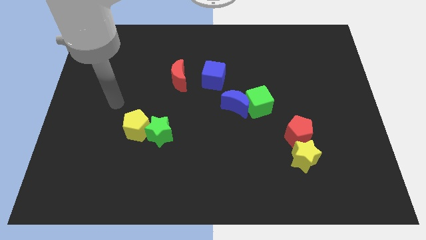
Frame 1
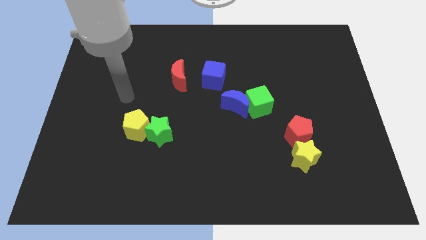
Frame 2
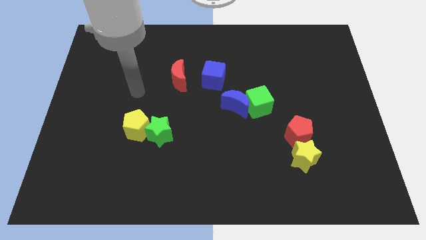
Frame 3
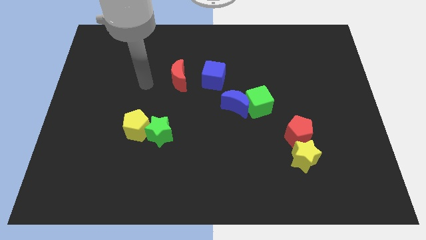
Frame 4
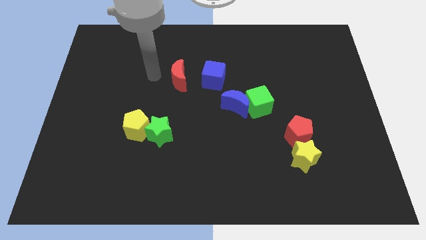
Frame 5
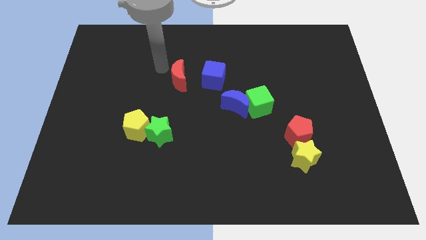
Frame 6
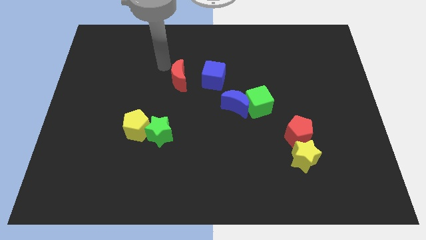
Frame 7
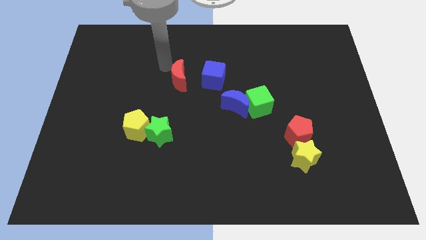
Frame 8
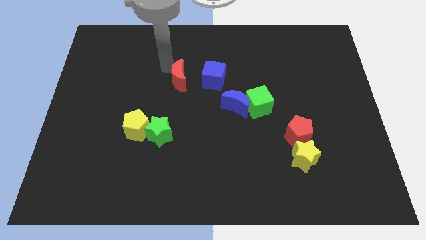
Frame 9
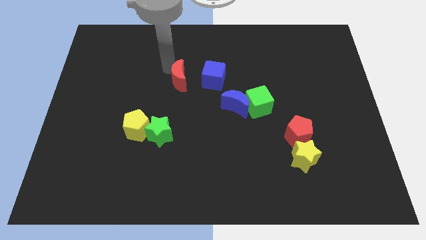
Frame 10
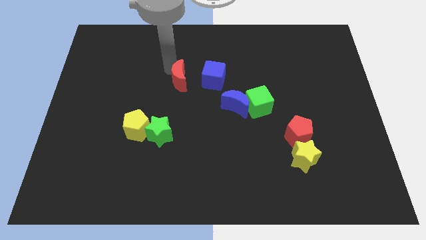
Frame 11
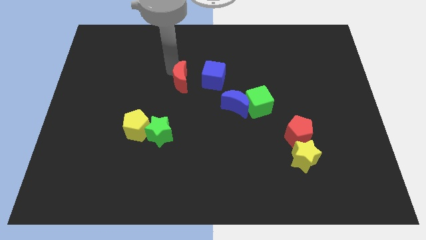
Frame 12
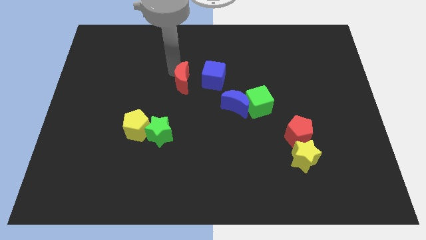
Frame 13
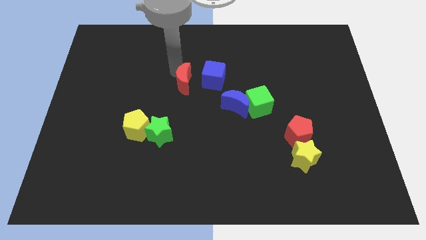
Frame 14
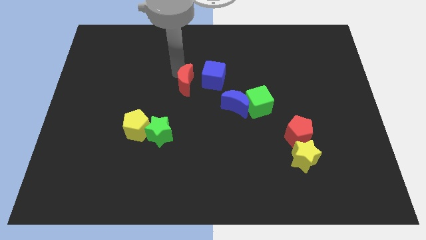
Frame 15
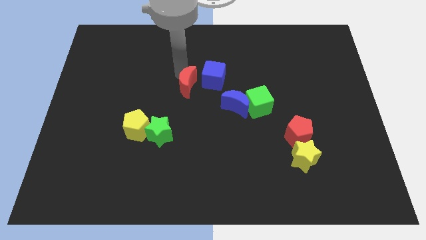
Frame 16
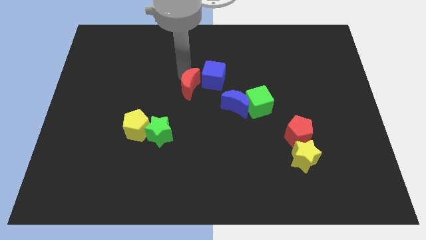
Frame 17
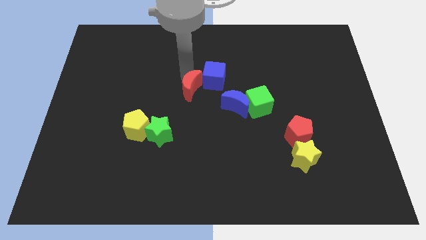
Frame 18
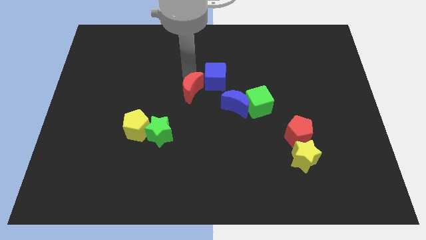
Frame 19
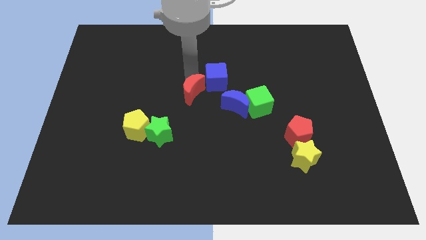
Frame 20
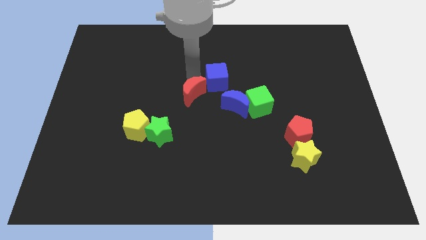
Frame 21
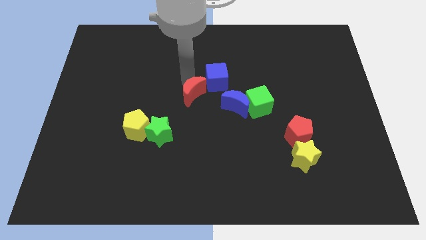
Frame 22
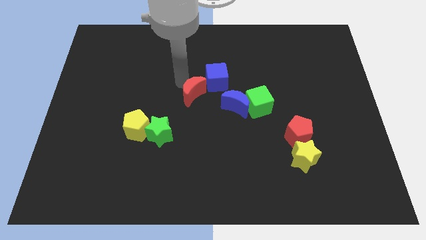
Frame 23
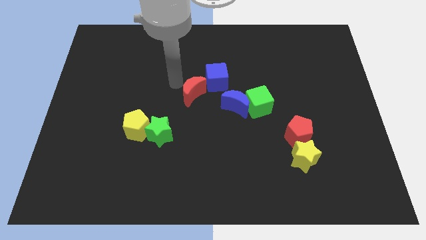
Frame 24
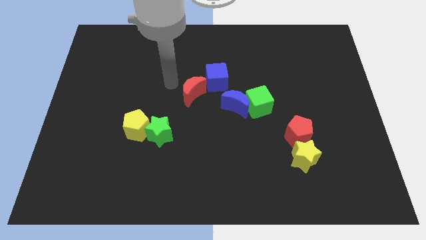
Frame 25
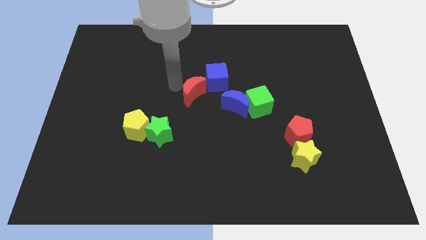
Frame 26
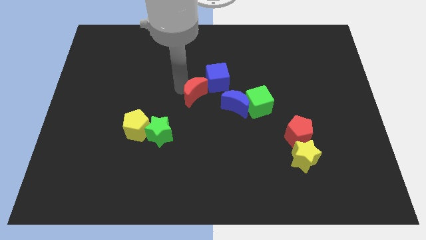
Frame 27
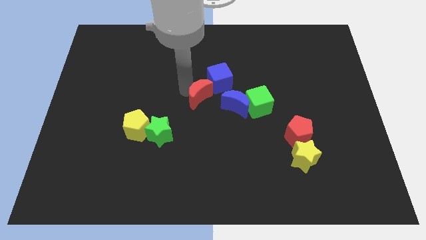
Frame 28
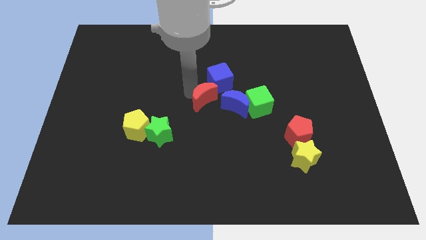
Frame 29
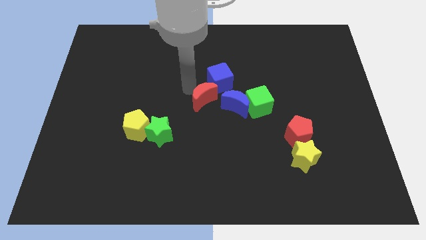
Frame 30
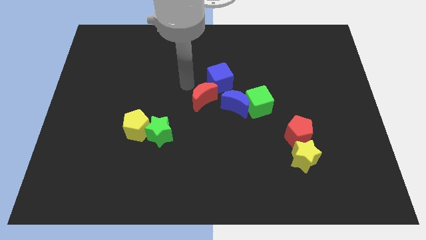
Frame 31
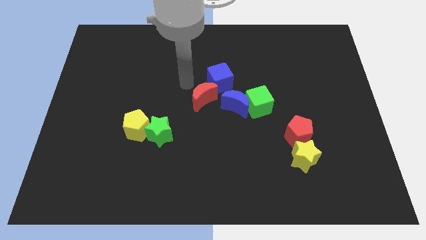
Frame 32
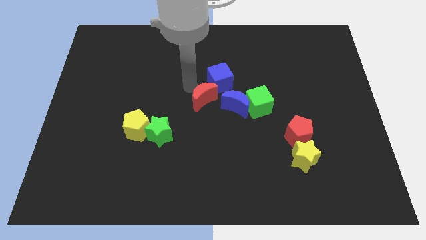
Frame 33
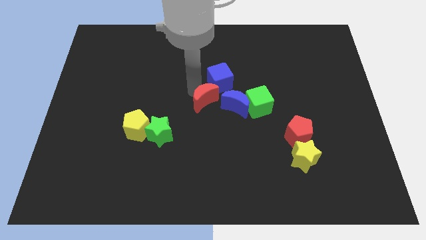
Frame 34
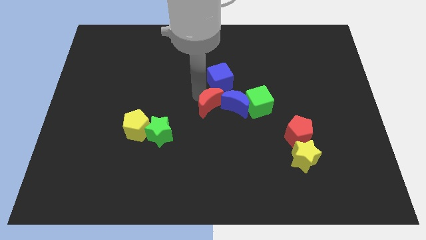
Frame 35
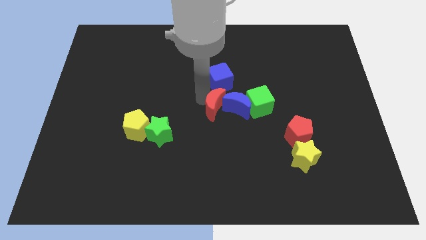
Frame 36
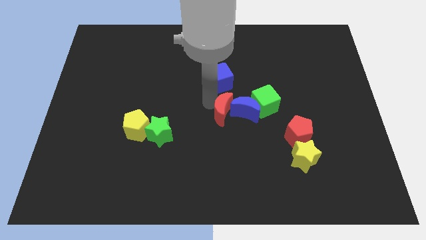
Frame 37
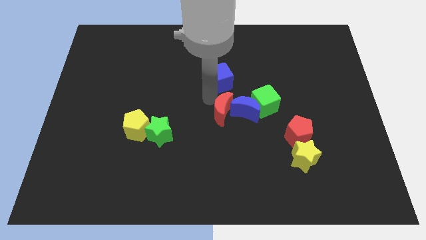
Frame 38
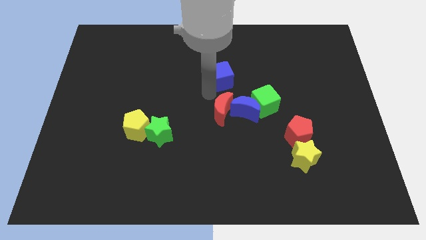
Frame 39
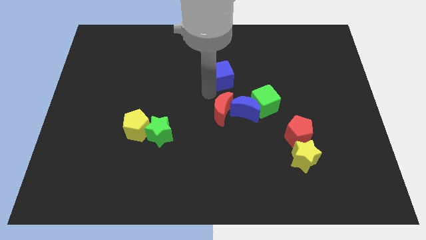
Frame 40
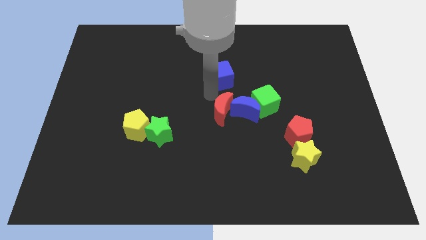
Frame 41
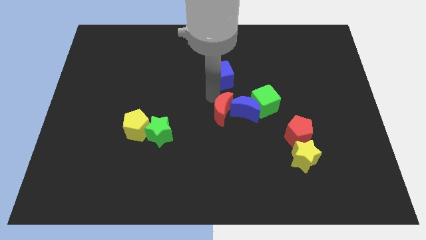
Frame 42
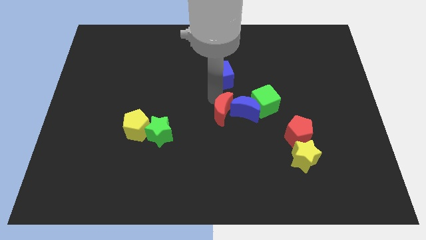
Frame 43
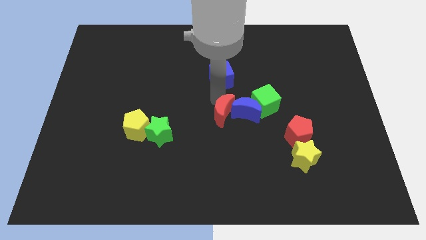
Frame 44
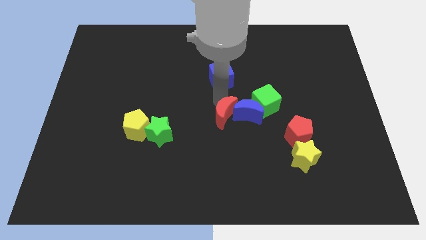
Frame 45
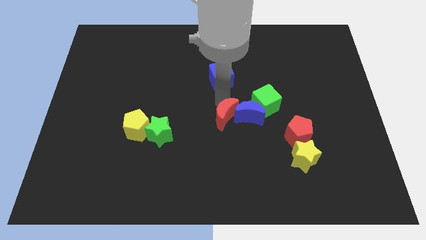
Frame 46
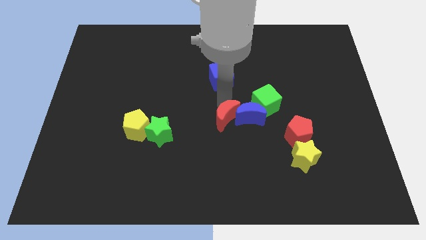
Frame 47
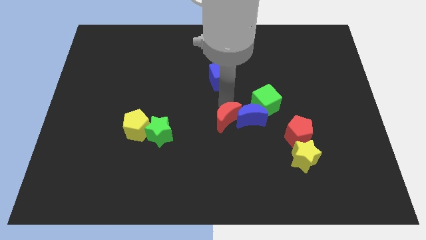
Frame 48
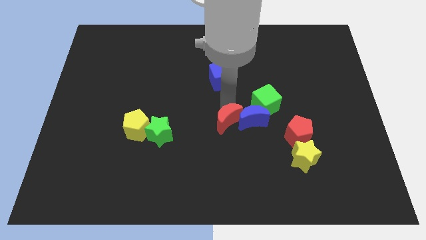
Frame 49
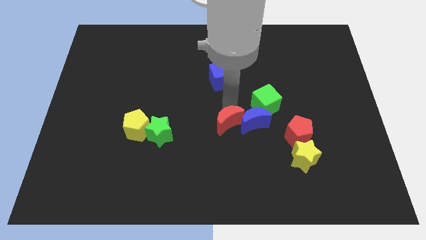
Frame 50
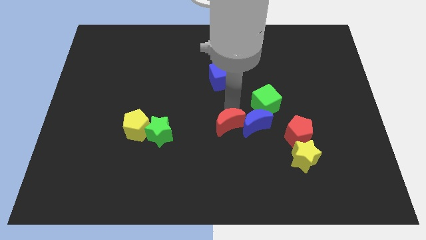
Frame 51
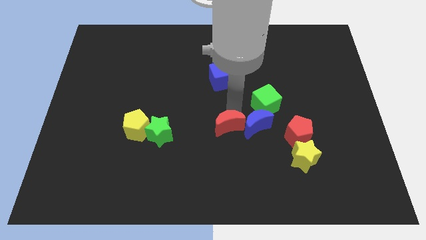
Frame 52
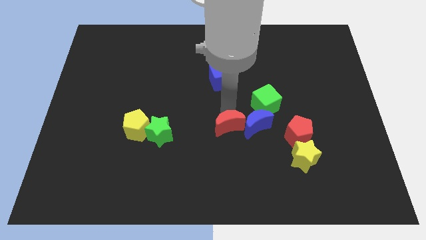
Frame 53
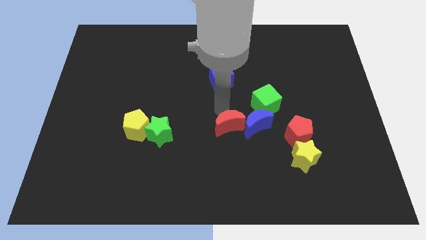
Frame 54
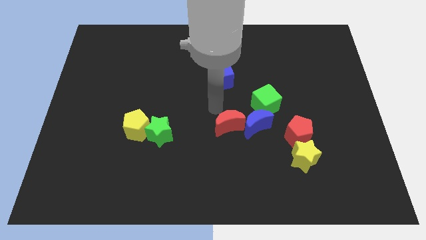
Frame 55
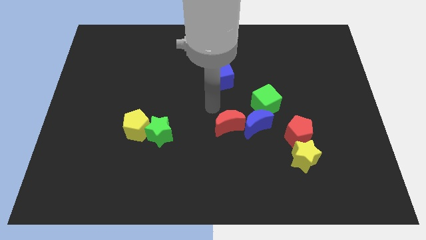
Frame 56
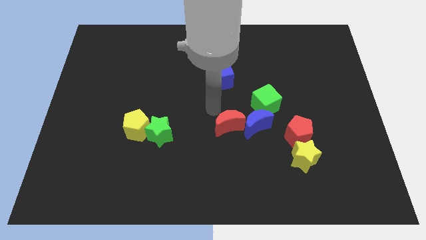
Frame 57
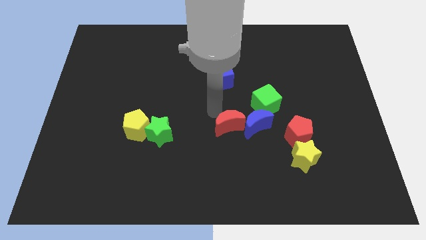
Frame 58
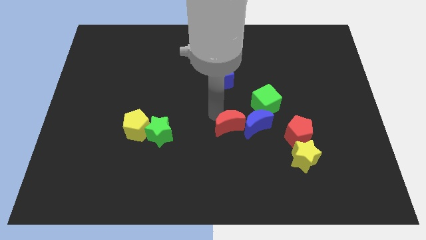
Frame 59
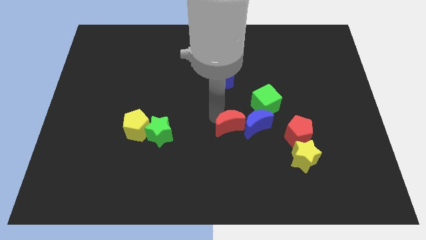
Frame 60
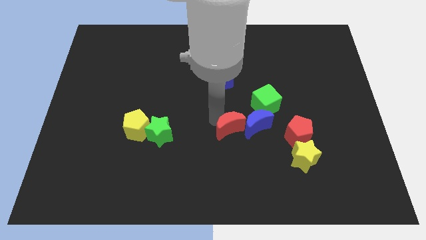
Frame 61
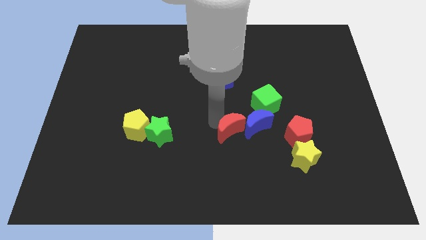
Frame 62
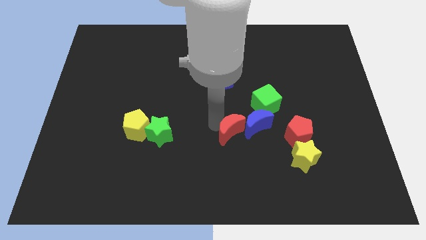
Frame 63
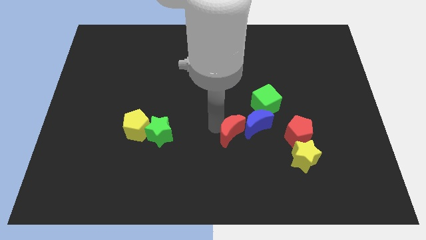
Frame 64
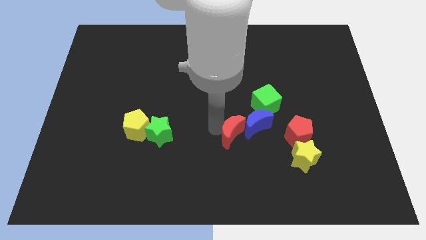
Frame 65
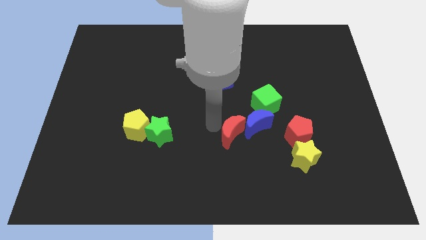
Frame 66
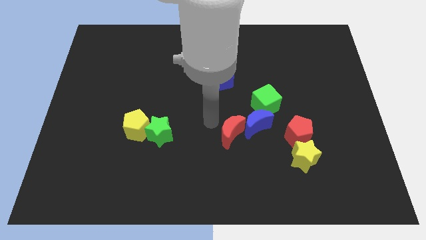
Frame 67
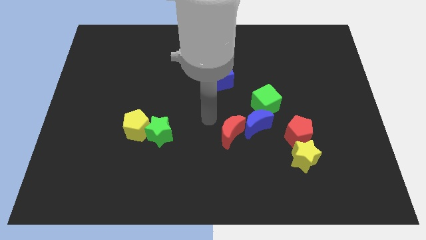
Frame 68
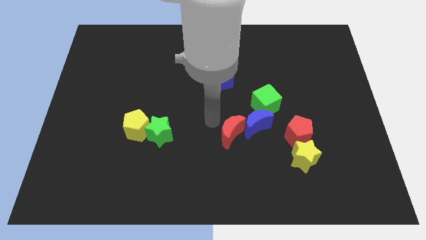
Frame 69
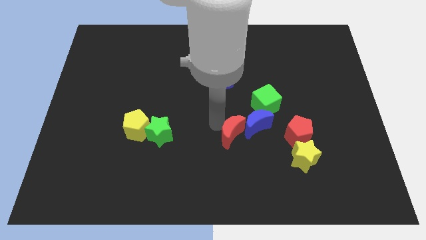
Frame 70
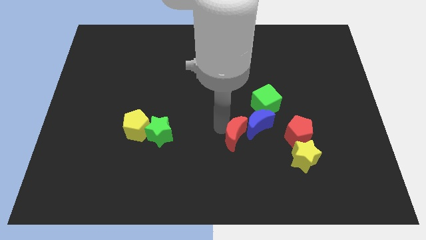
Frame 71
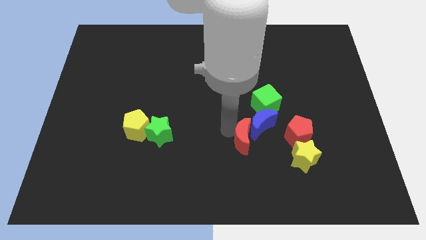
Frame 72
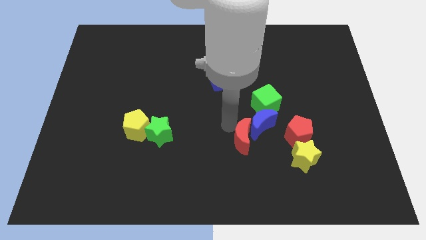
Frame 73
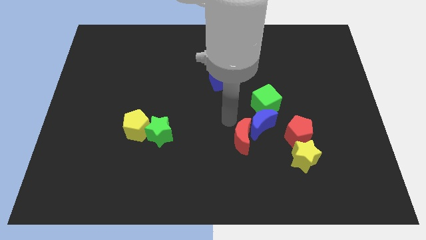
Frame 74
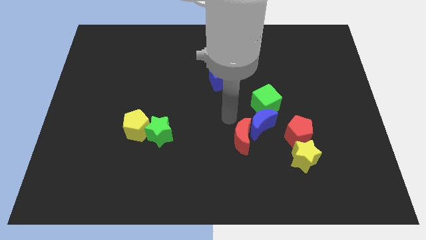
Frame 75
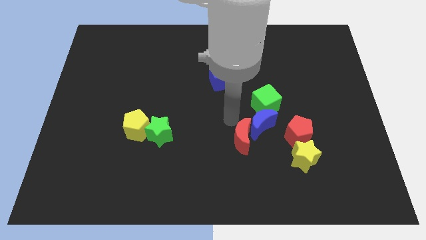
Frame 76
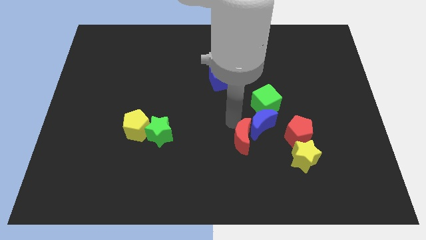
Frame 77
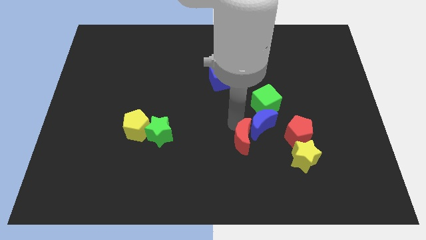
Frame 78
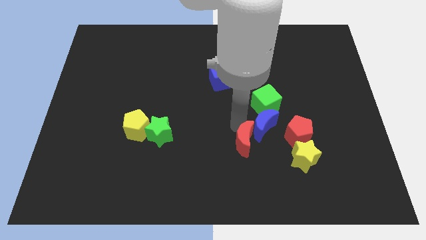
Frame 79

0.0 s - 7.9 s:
put the red moon to the left of the yellow star
